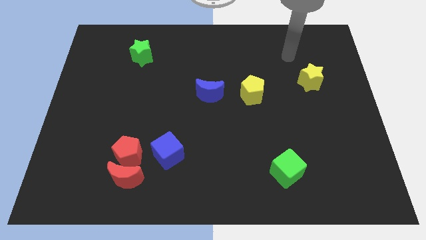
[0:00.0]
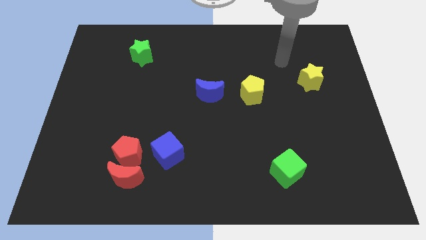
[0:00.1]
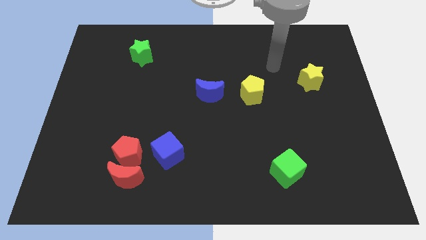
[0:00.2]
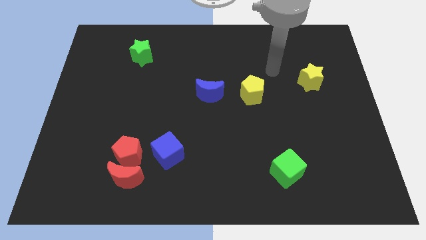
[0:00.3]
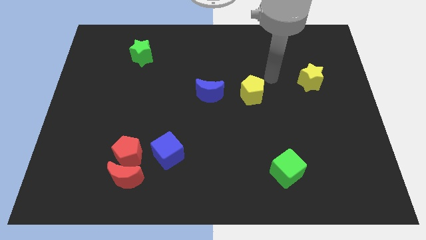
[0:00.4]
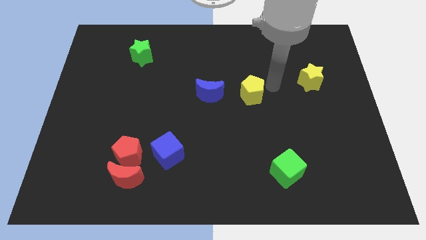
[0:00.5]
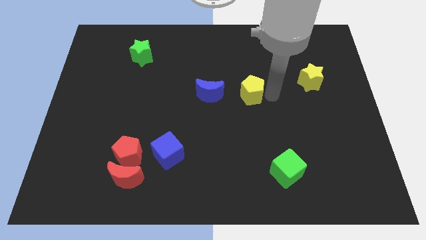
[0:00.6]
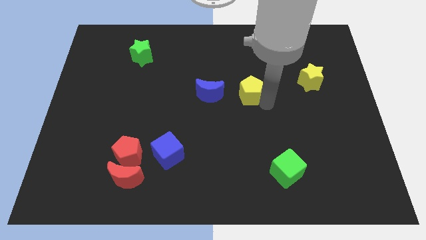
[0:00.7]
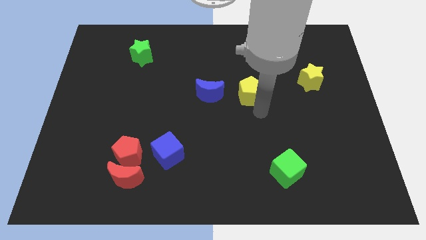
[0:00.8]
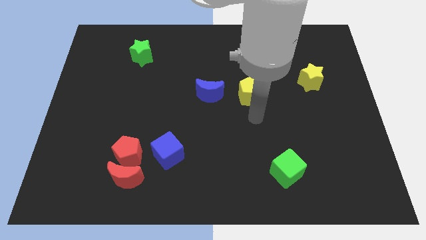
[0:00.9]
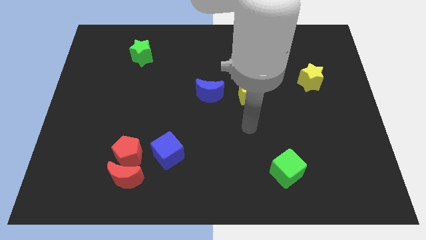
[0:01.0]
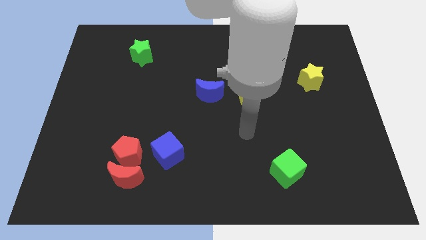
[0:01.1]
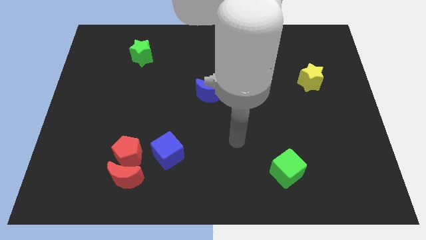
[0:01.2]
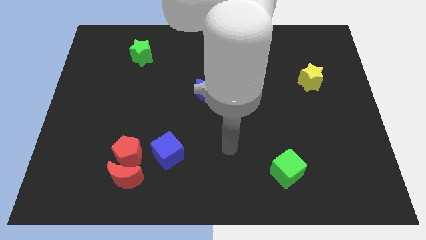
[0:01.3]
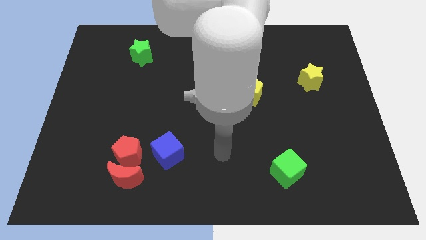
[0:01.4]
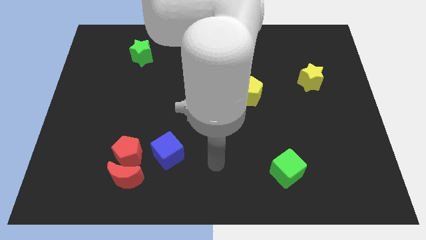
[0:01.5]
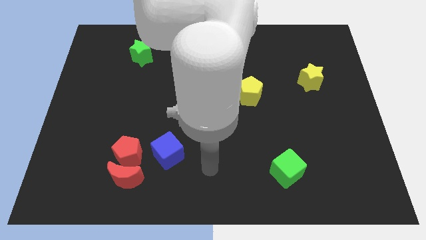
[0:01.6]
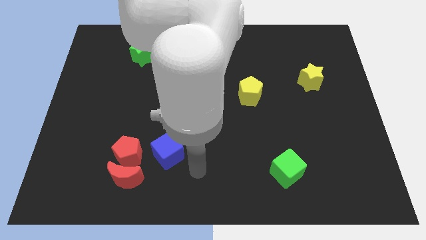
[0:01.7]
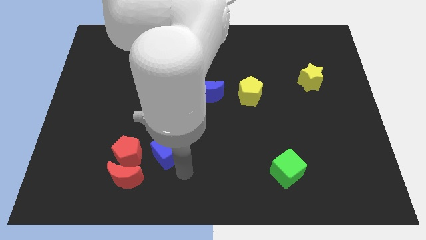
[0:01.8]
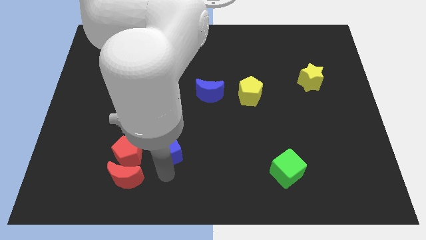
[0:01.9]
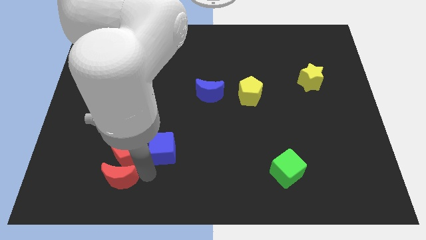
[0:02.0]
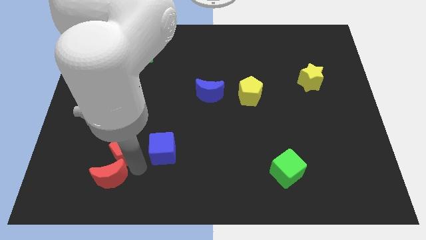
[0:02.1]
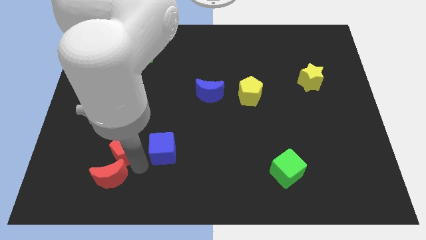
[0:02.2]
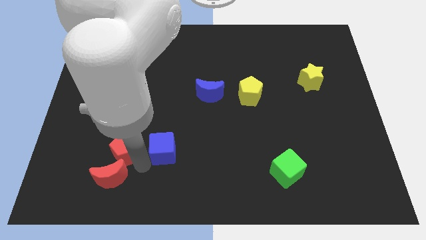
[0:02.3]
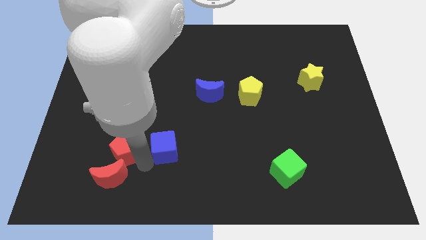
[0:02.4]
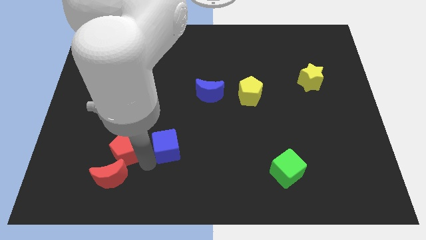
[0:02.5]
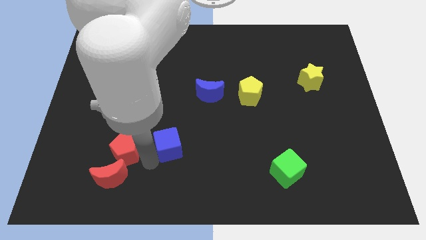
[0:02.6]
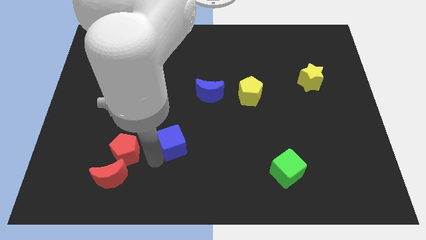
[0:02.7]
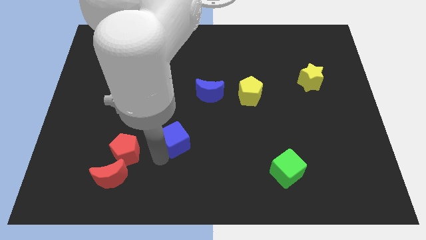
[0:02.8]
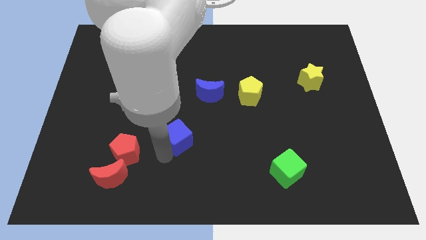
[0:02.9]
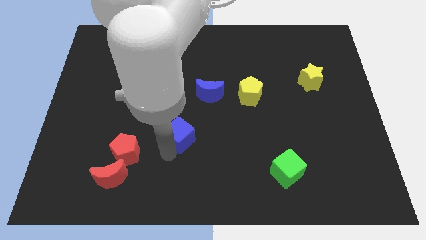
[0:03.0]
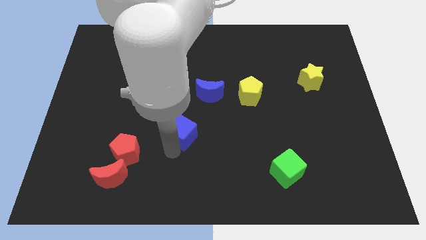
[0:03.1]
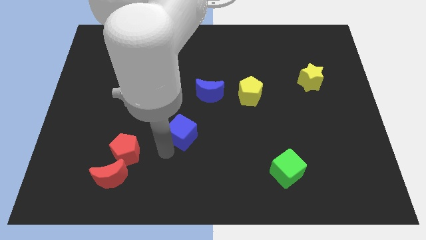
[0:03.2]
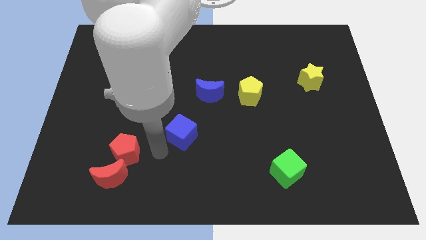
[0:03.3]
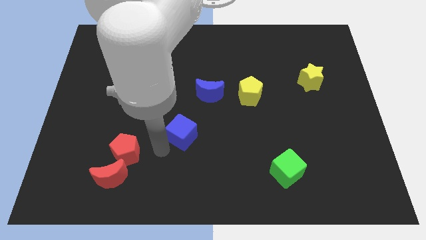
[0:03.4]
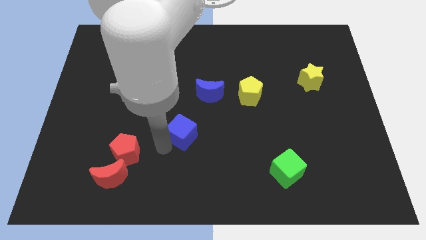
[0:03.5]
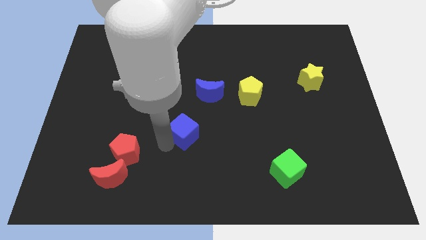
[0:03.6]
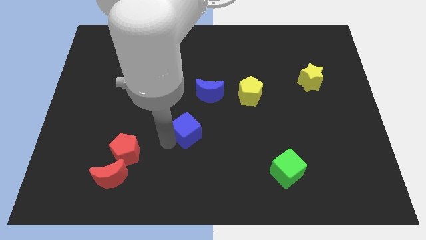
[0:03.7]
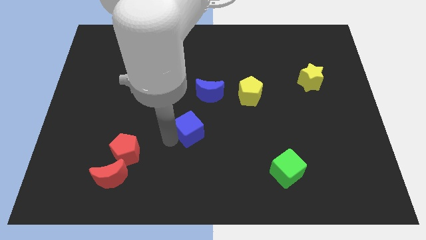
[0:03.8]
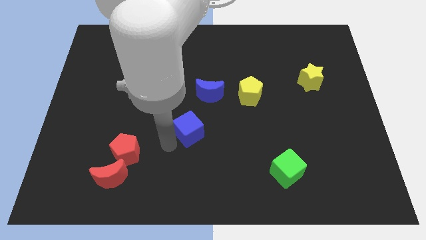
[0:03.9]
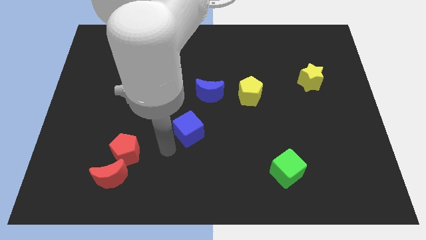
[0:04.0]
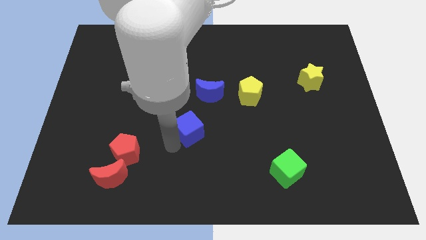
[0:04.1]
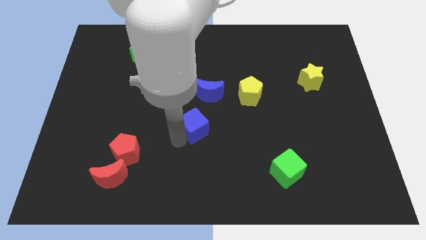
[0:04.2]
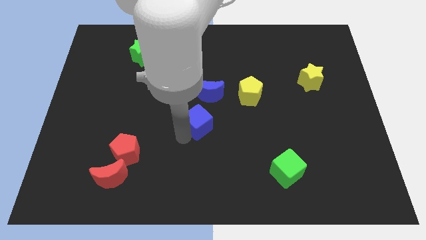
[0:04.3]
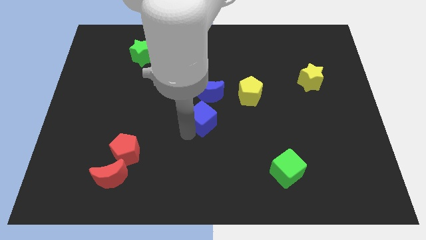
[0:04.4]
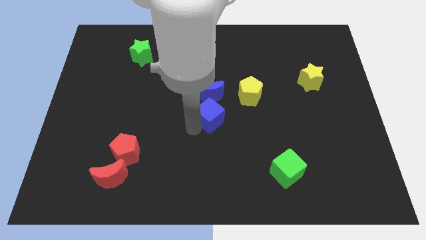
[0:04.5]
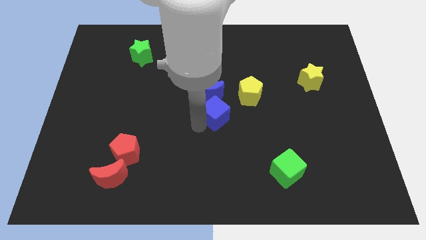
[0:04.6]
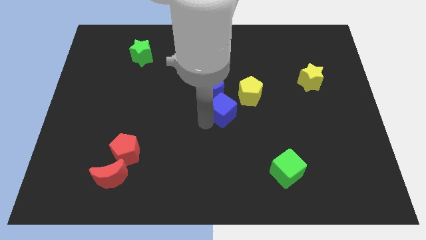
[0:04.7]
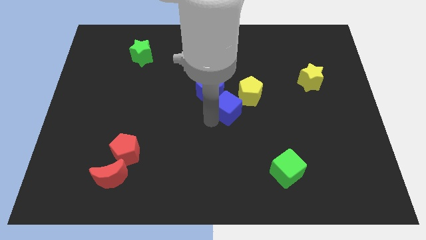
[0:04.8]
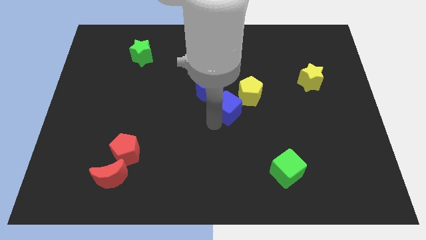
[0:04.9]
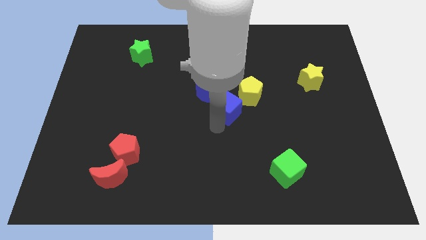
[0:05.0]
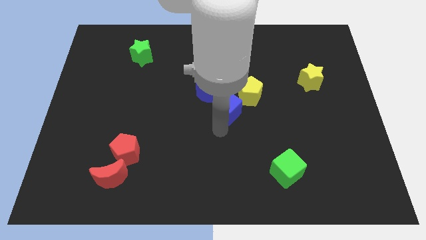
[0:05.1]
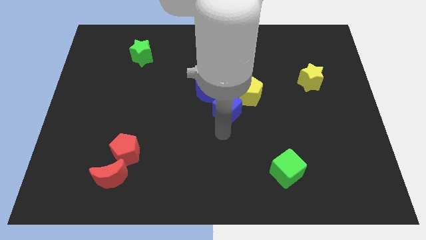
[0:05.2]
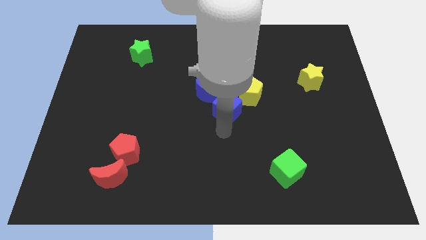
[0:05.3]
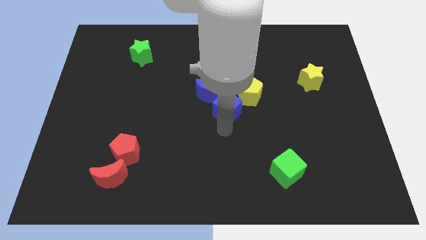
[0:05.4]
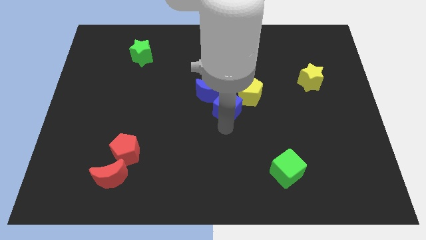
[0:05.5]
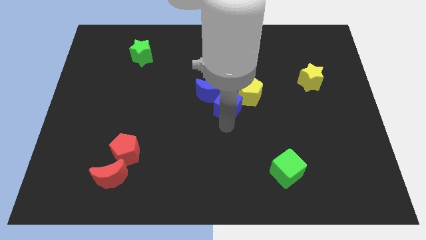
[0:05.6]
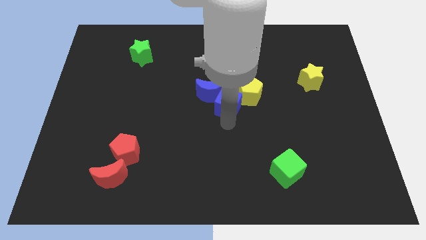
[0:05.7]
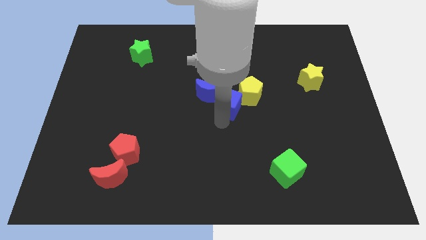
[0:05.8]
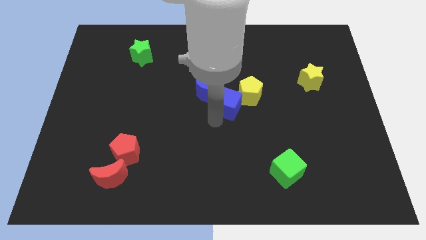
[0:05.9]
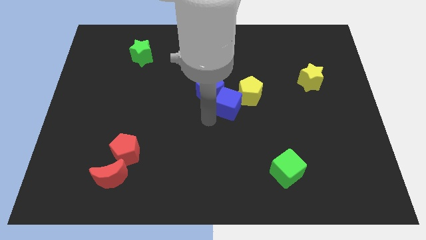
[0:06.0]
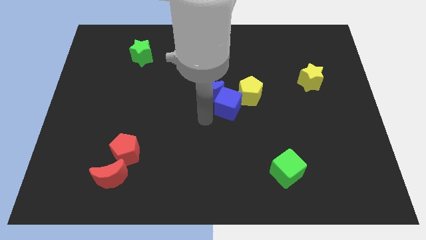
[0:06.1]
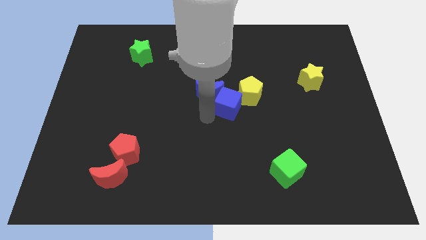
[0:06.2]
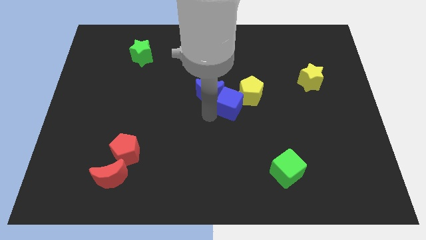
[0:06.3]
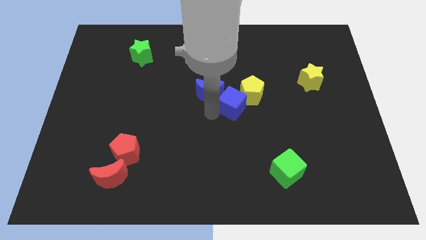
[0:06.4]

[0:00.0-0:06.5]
slide the blue cube to the yellow pentagon

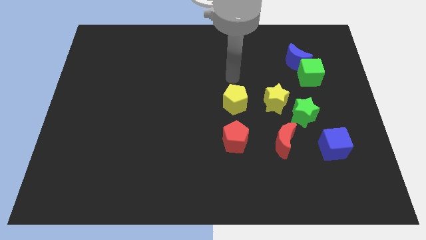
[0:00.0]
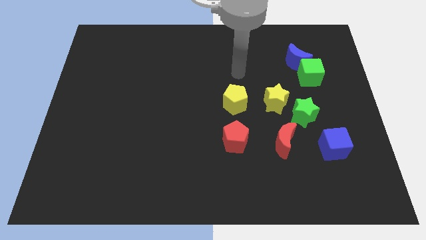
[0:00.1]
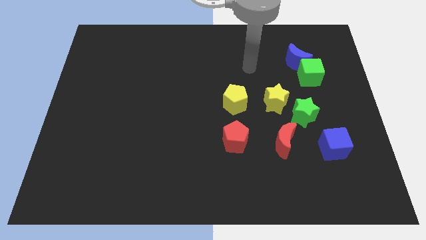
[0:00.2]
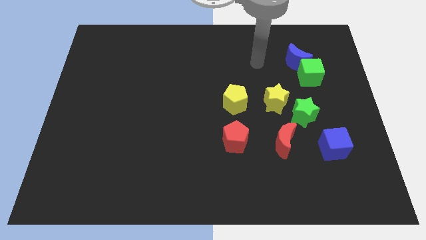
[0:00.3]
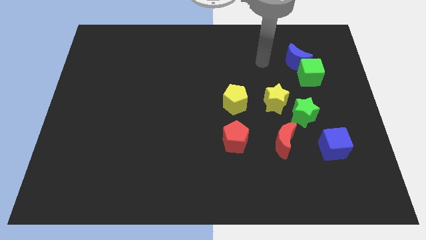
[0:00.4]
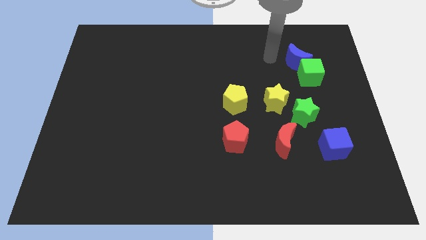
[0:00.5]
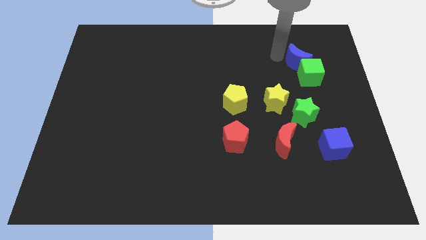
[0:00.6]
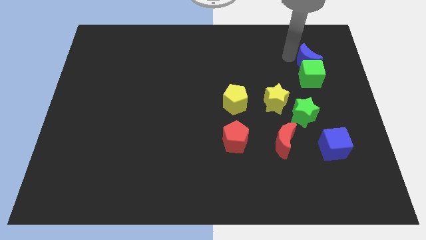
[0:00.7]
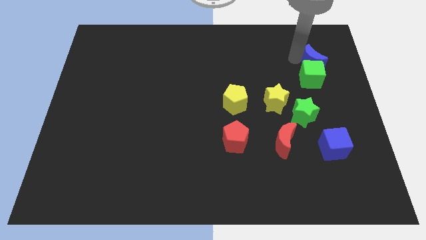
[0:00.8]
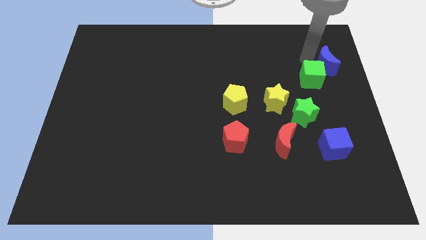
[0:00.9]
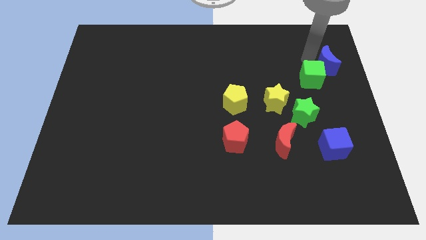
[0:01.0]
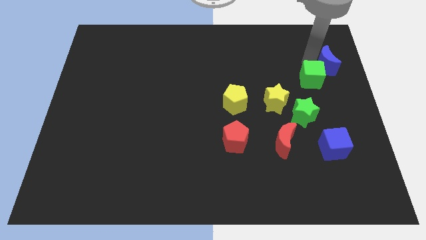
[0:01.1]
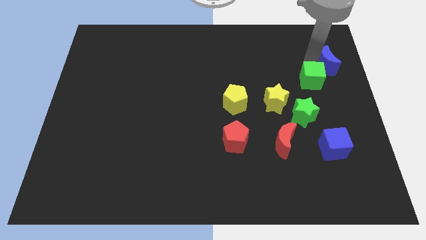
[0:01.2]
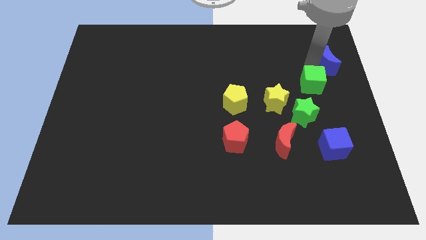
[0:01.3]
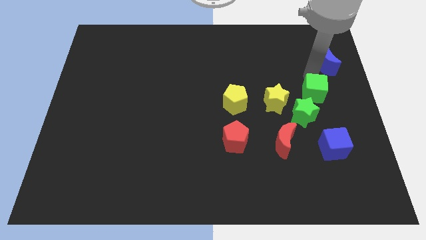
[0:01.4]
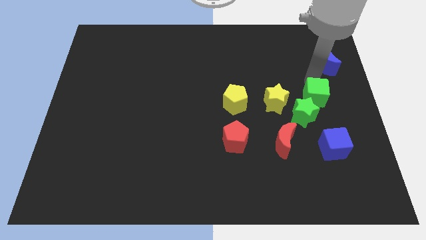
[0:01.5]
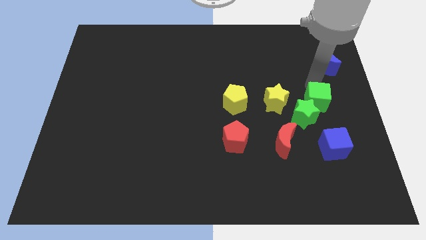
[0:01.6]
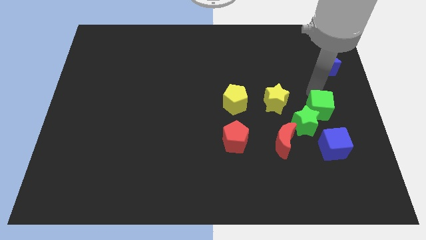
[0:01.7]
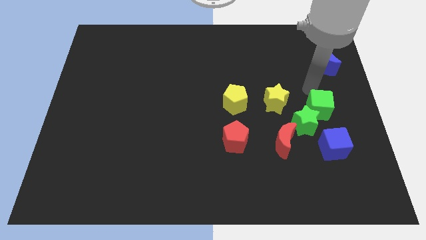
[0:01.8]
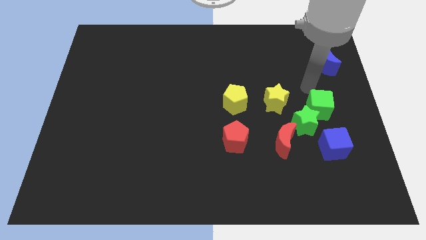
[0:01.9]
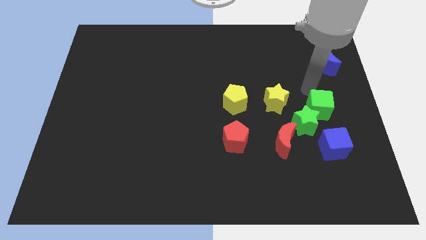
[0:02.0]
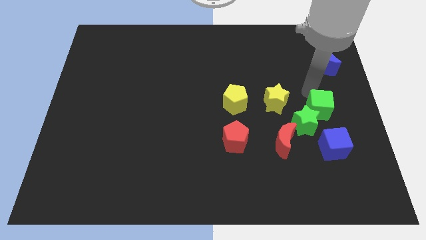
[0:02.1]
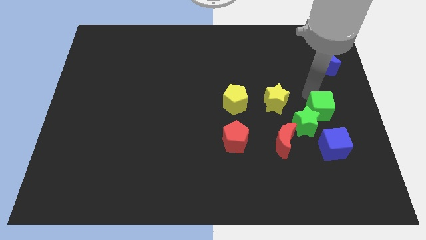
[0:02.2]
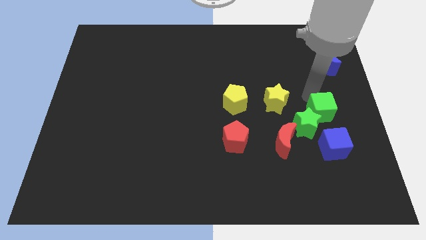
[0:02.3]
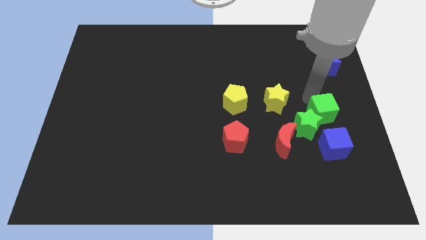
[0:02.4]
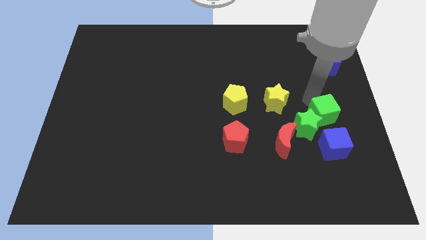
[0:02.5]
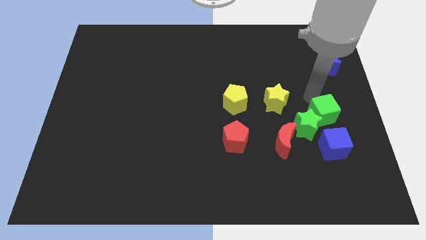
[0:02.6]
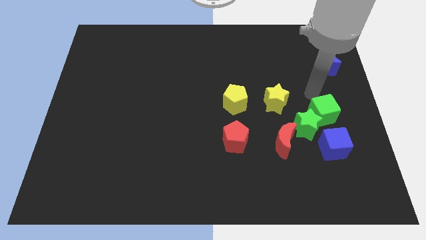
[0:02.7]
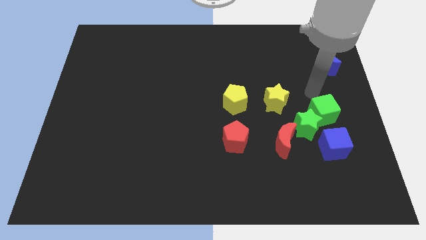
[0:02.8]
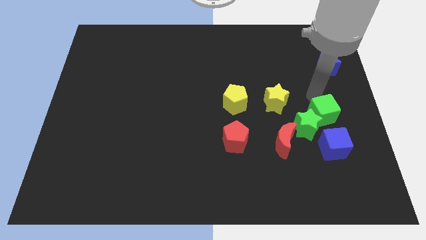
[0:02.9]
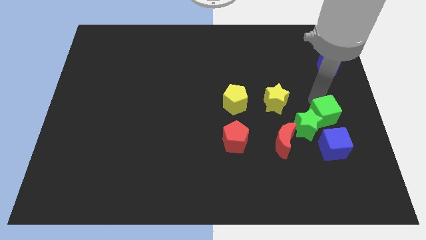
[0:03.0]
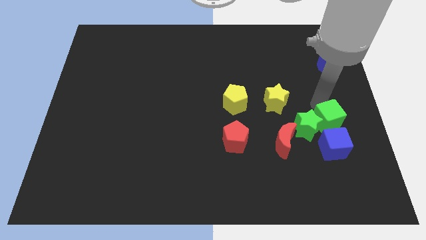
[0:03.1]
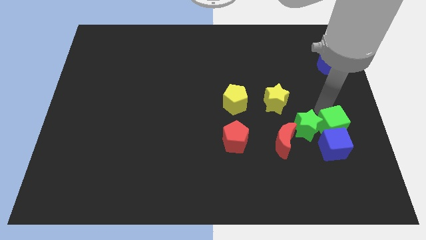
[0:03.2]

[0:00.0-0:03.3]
push the green cube towards the blue cube
